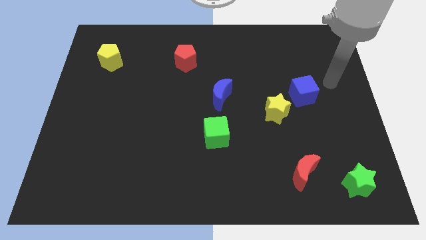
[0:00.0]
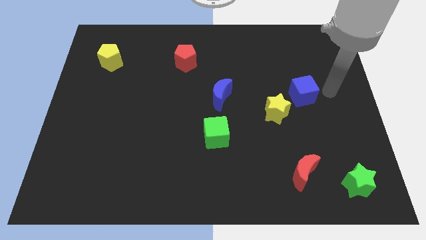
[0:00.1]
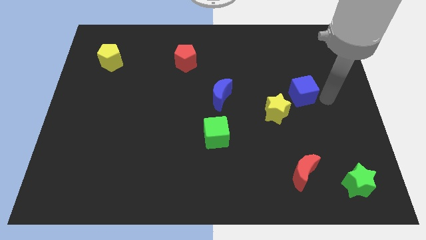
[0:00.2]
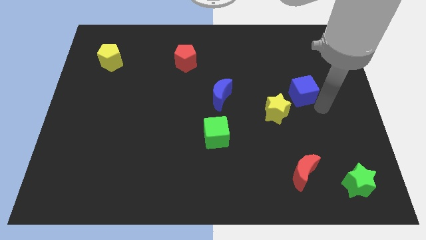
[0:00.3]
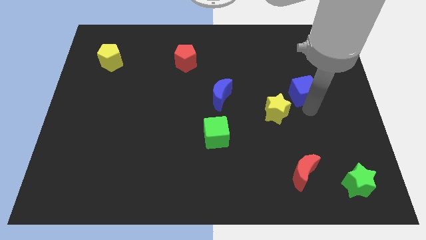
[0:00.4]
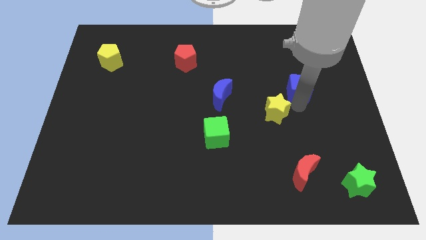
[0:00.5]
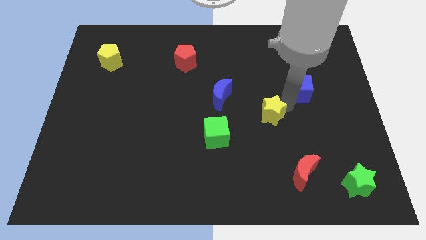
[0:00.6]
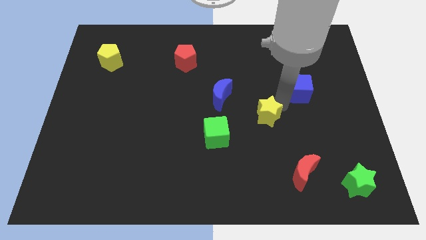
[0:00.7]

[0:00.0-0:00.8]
pull the blue cube apart from the yellow star

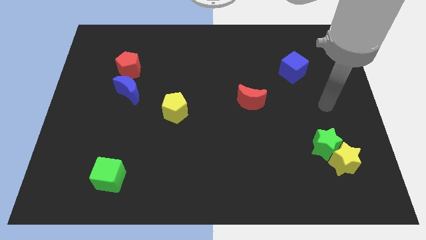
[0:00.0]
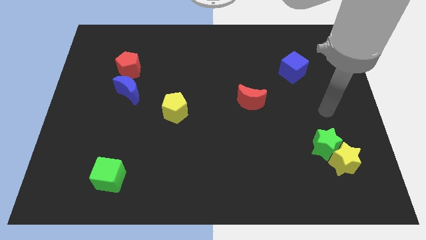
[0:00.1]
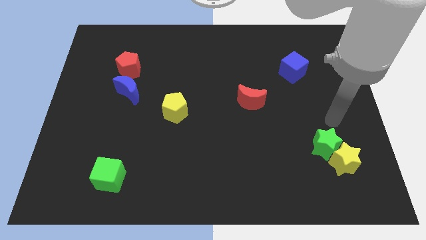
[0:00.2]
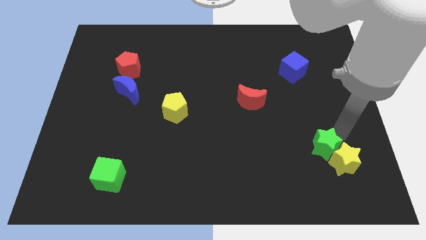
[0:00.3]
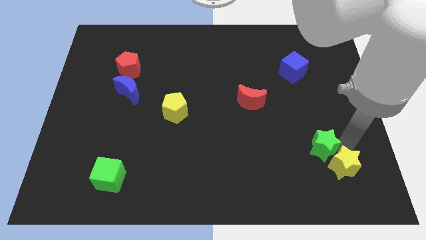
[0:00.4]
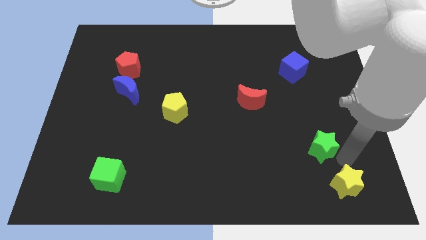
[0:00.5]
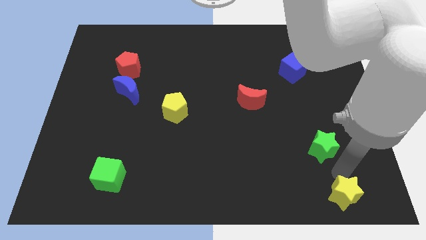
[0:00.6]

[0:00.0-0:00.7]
pull the green star apart from the yellow star

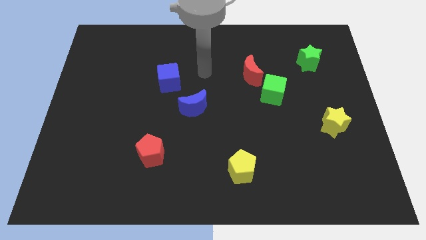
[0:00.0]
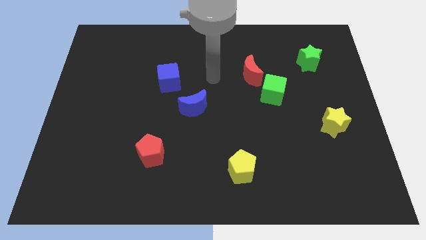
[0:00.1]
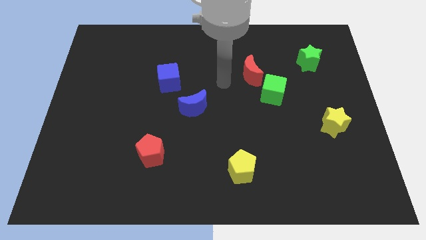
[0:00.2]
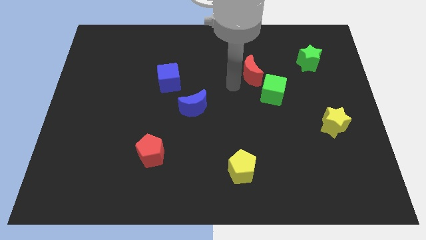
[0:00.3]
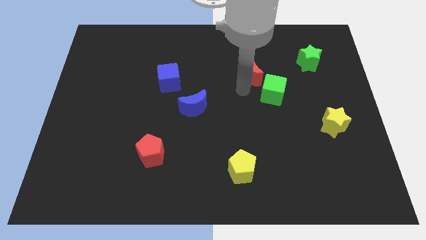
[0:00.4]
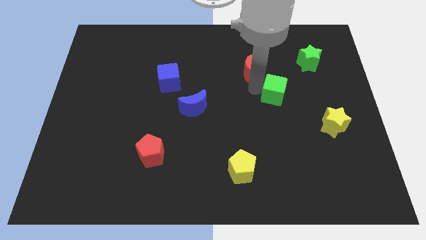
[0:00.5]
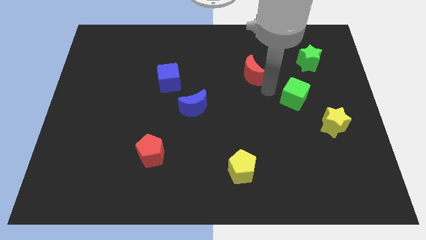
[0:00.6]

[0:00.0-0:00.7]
separate the red moon from the green cube

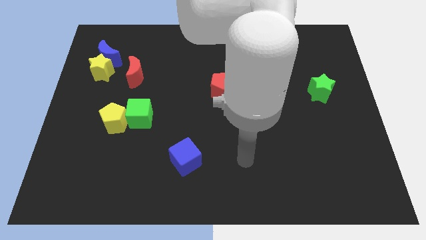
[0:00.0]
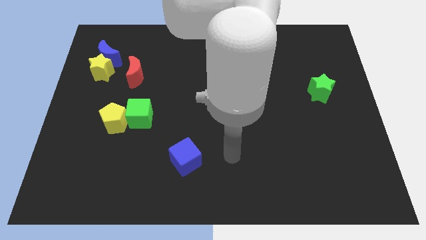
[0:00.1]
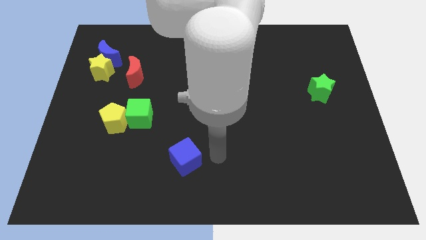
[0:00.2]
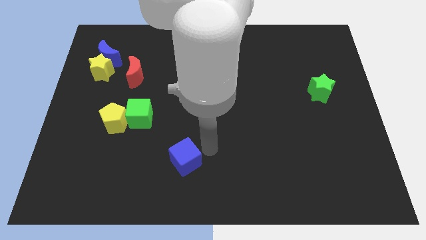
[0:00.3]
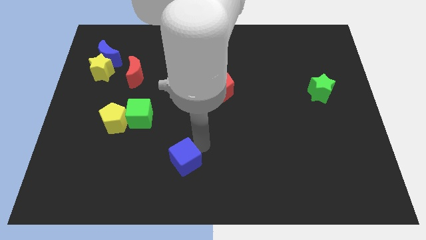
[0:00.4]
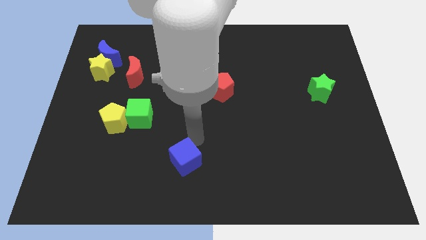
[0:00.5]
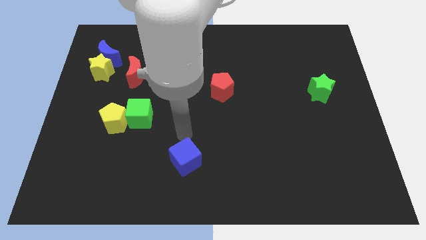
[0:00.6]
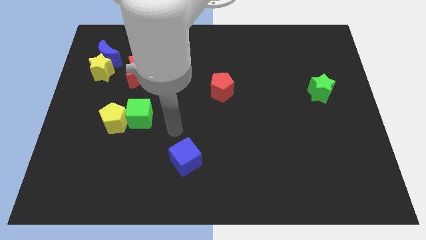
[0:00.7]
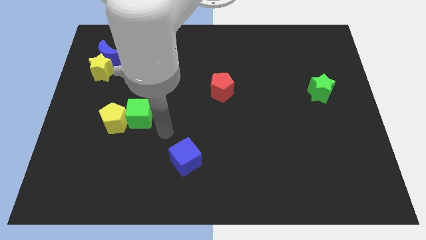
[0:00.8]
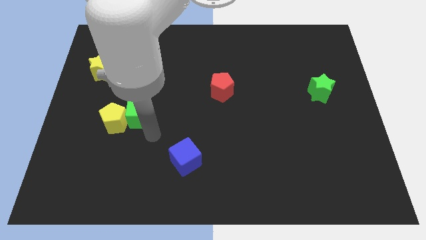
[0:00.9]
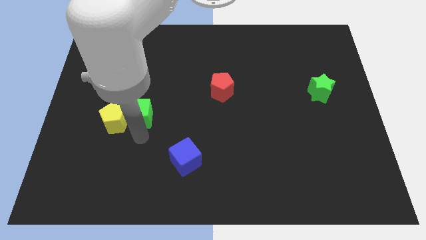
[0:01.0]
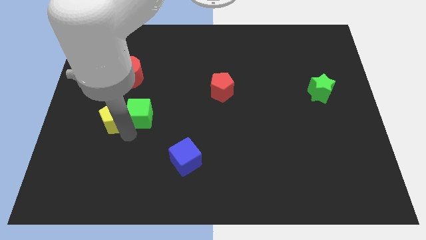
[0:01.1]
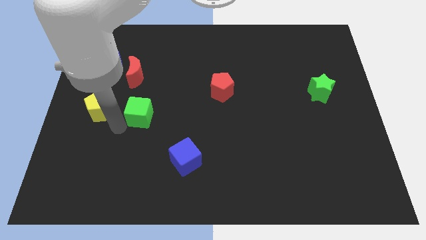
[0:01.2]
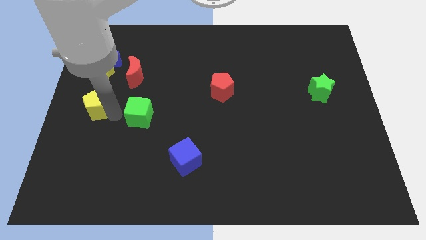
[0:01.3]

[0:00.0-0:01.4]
separate the green cube from the yellow pentagon

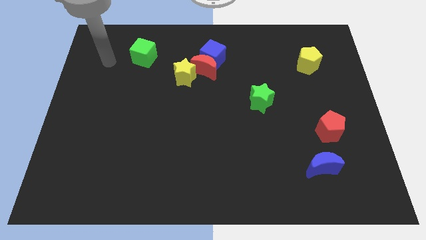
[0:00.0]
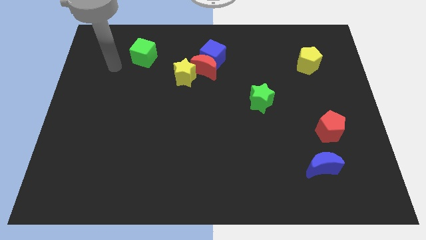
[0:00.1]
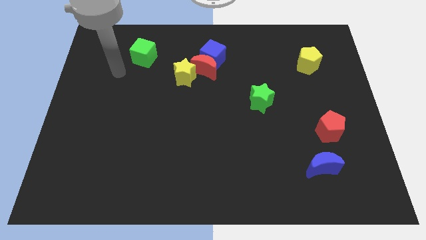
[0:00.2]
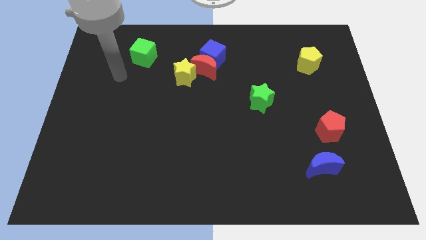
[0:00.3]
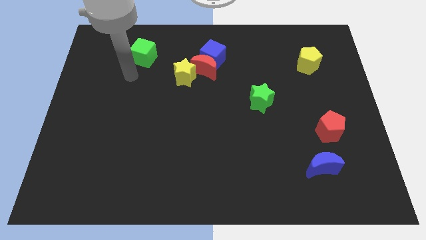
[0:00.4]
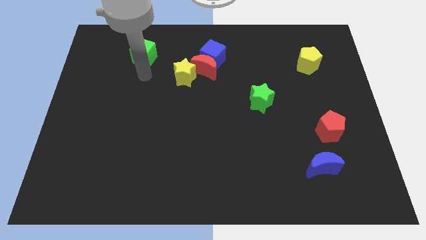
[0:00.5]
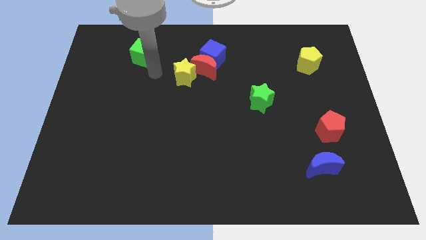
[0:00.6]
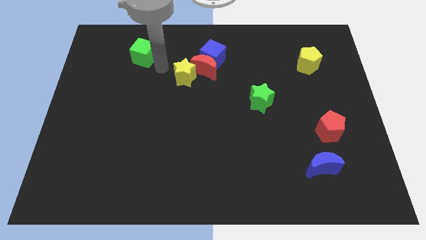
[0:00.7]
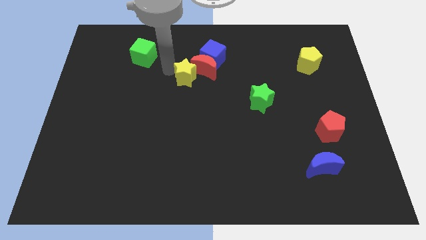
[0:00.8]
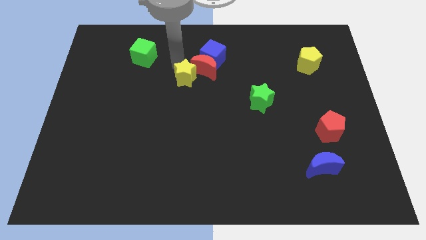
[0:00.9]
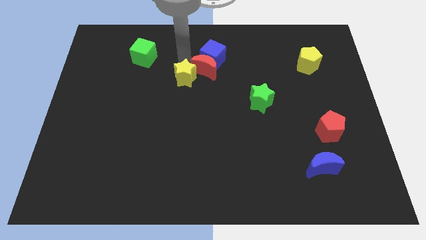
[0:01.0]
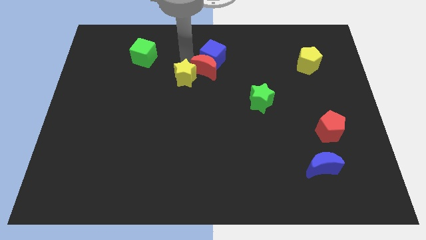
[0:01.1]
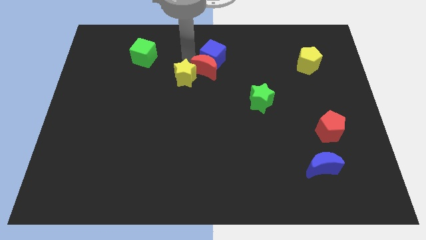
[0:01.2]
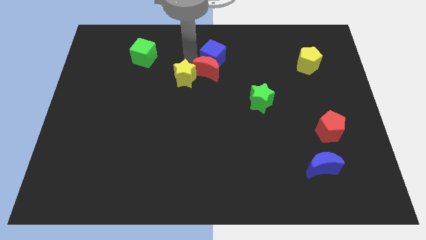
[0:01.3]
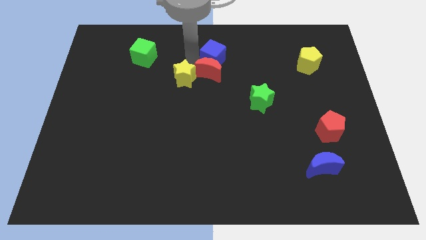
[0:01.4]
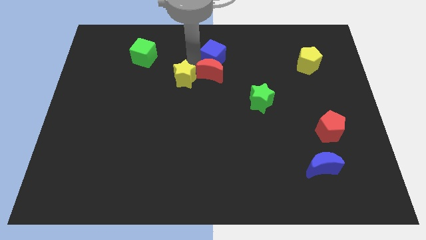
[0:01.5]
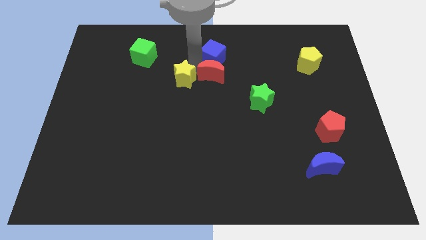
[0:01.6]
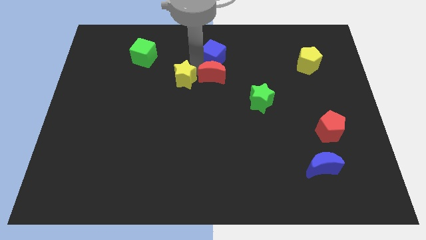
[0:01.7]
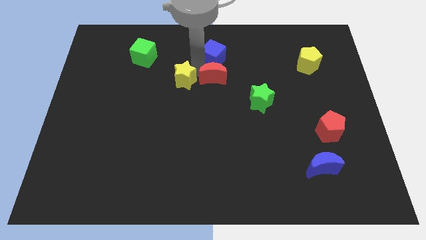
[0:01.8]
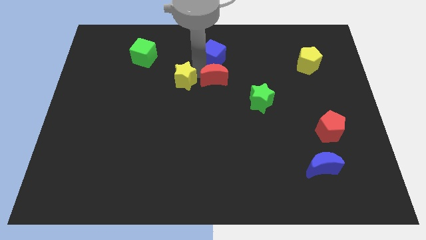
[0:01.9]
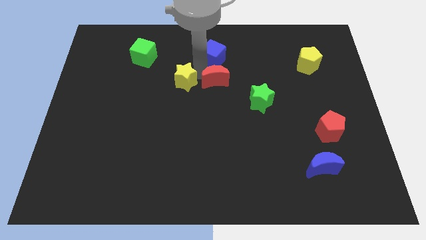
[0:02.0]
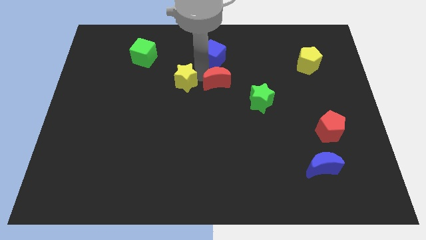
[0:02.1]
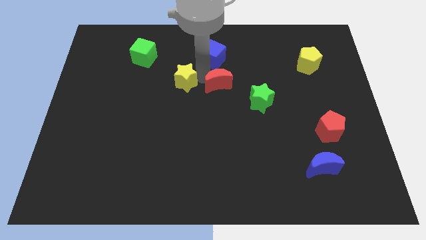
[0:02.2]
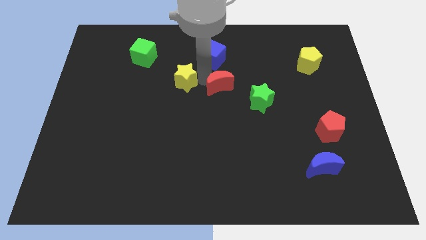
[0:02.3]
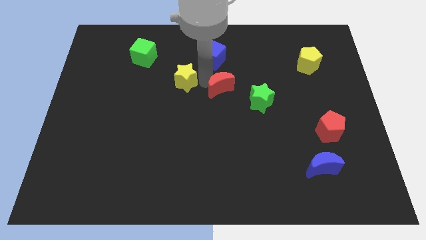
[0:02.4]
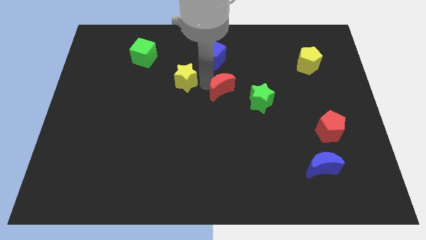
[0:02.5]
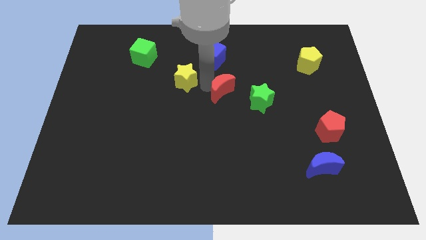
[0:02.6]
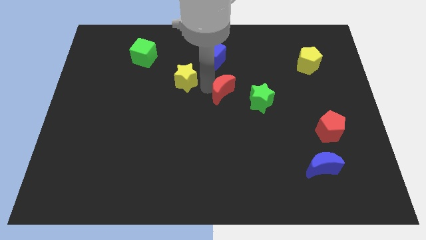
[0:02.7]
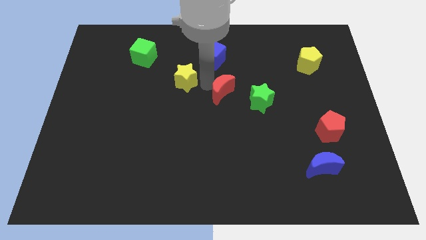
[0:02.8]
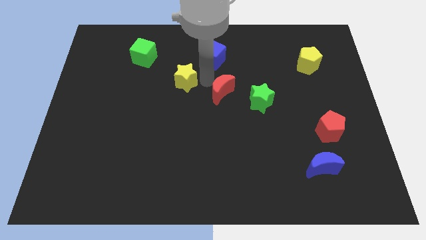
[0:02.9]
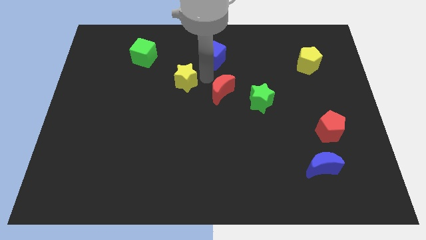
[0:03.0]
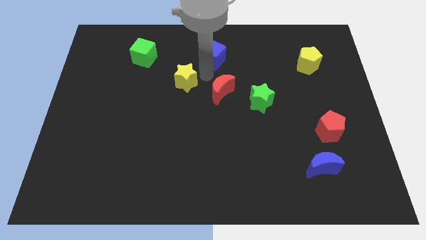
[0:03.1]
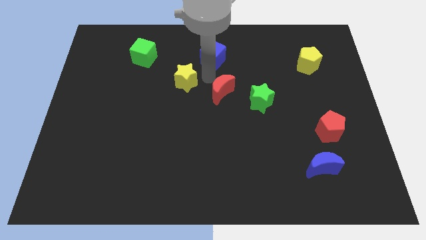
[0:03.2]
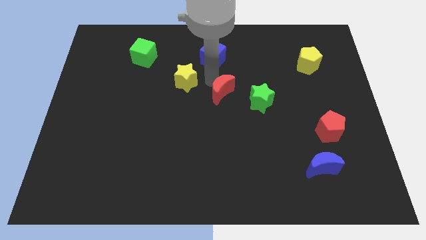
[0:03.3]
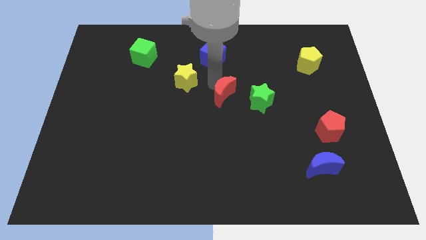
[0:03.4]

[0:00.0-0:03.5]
move the red moon away from the blue cube and yellow star

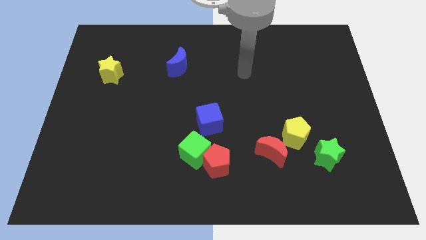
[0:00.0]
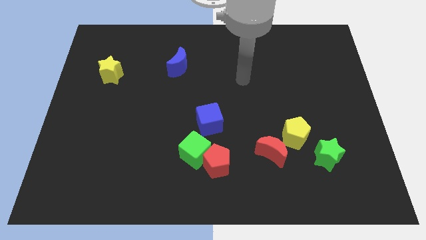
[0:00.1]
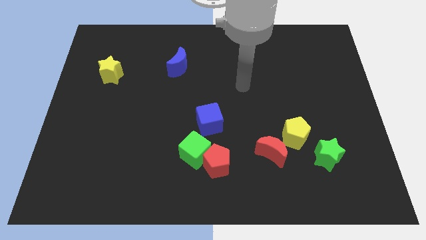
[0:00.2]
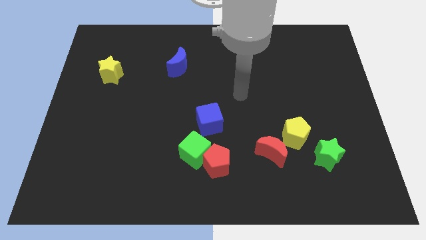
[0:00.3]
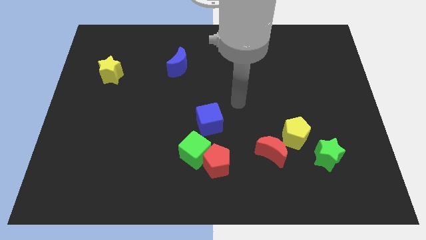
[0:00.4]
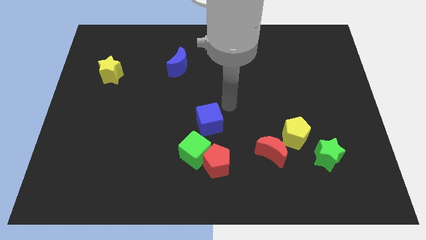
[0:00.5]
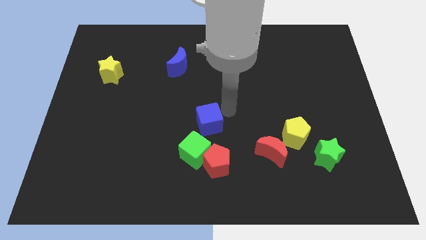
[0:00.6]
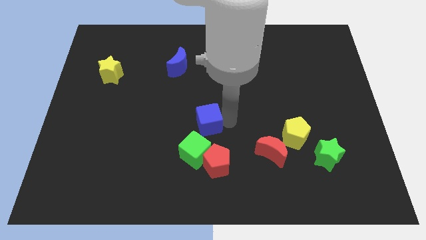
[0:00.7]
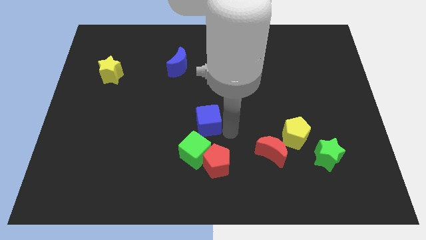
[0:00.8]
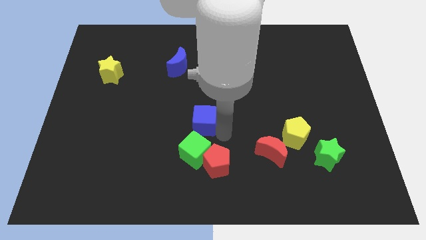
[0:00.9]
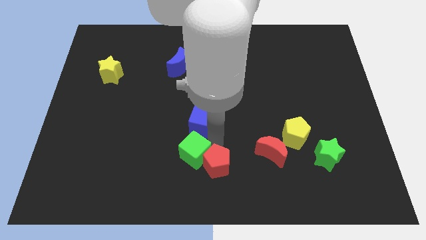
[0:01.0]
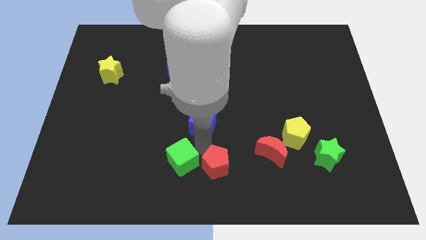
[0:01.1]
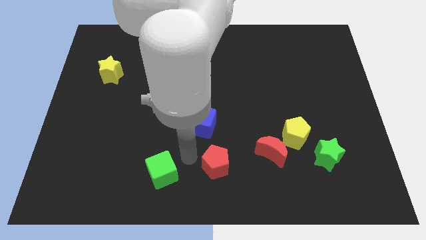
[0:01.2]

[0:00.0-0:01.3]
move the red pentagon away from the green cube

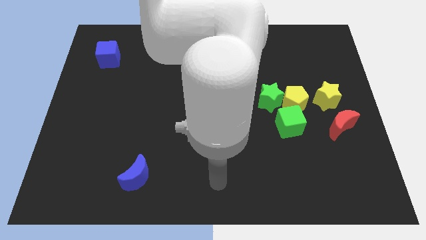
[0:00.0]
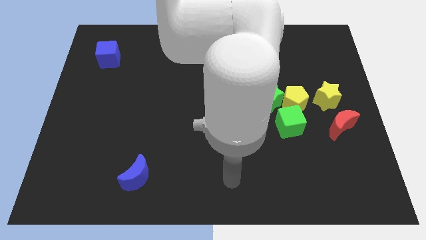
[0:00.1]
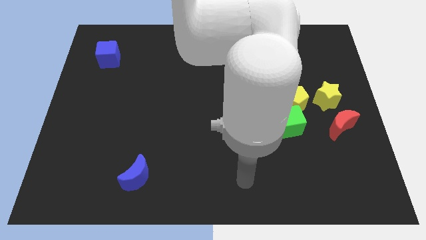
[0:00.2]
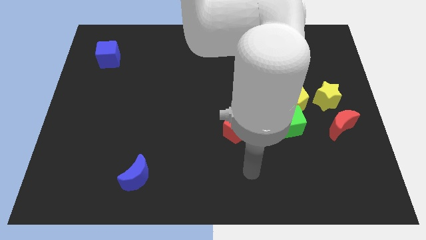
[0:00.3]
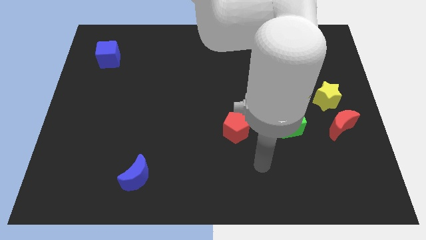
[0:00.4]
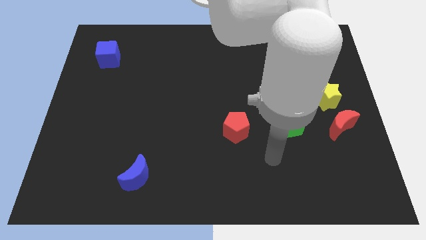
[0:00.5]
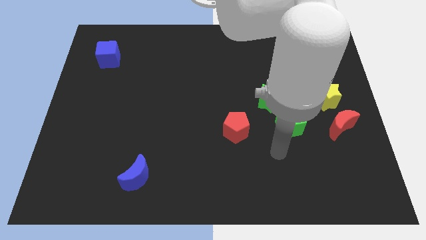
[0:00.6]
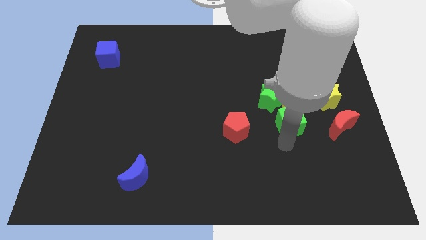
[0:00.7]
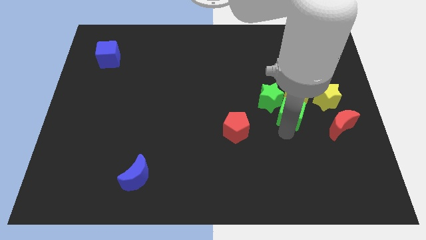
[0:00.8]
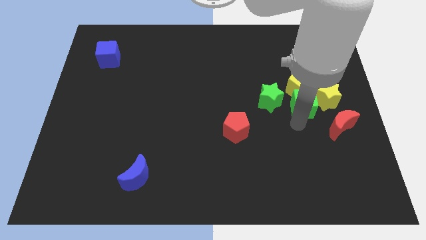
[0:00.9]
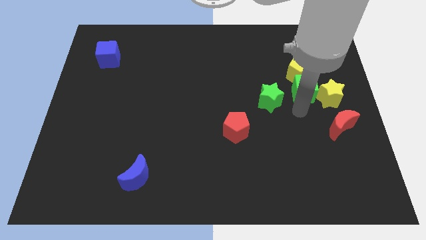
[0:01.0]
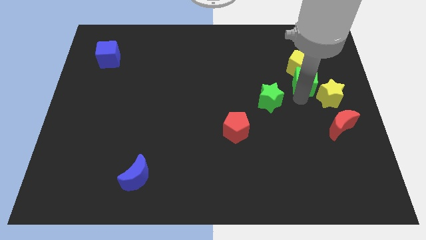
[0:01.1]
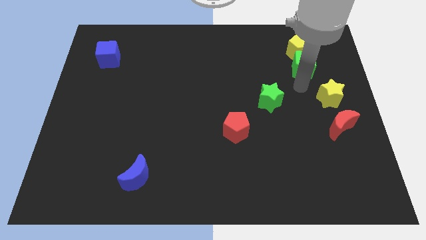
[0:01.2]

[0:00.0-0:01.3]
separate the yellow pentagon from the green star, green cube, and yellow star
